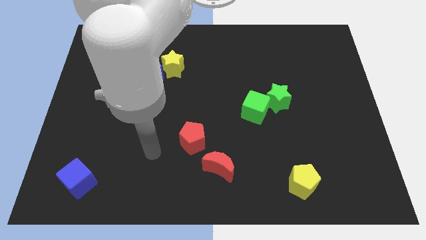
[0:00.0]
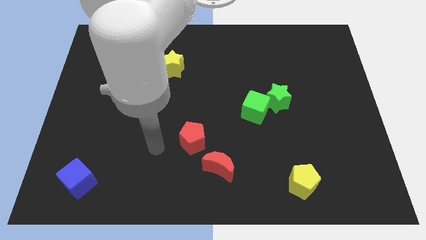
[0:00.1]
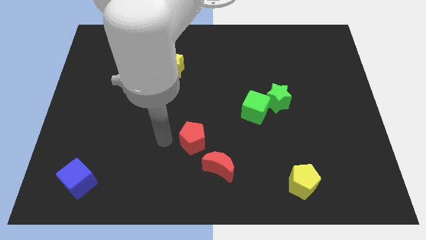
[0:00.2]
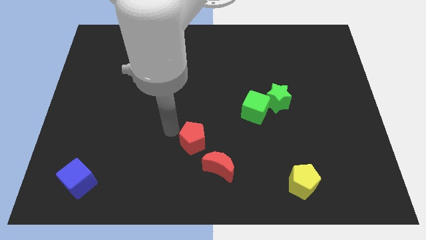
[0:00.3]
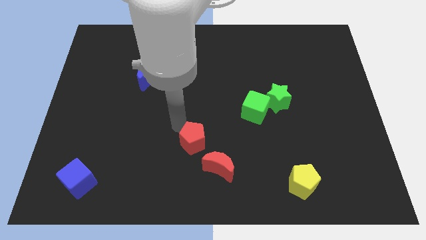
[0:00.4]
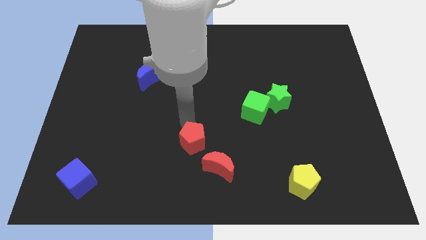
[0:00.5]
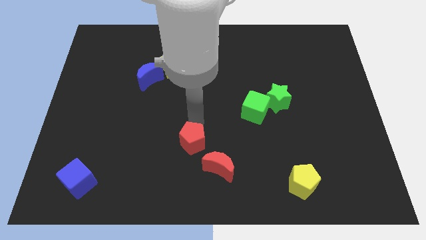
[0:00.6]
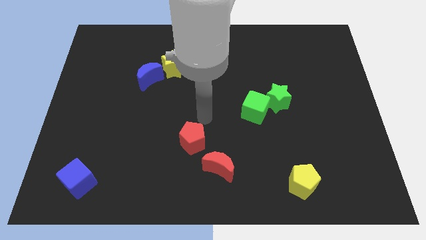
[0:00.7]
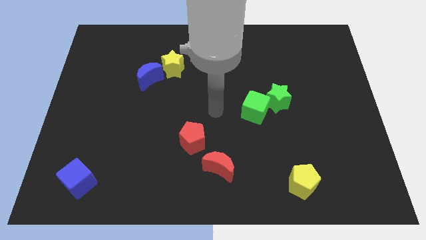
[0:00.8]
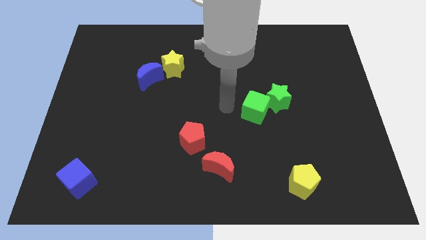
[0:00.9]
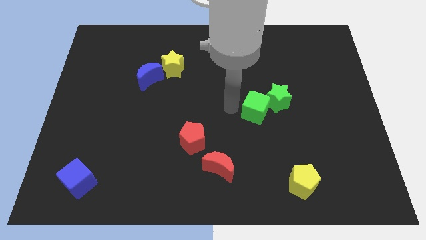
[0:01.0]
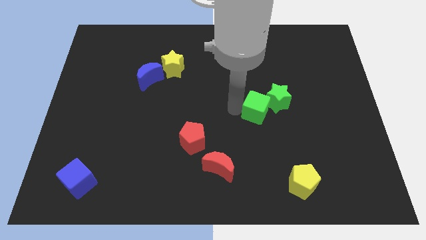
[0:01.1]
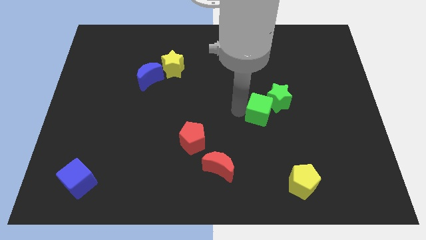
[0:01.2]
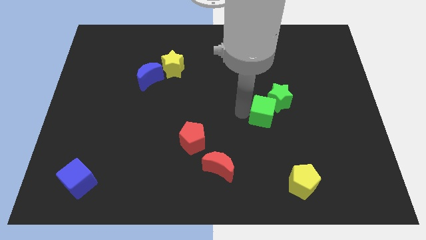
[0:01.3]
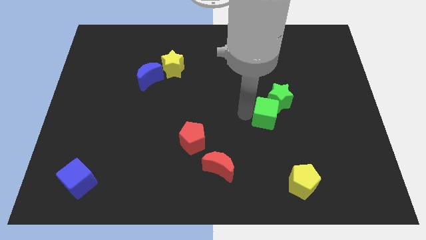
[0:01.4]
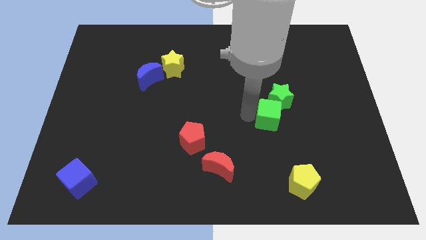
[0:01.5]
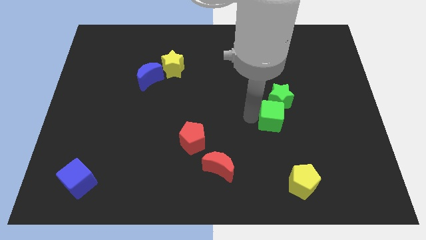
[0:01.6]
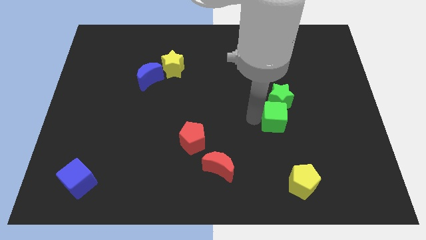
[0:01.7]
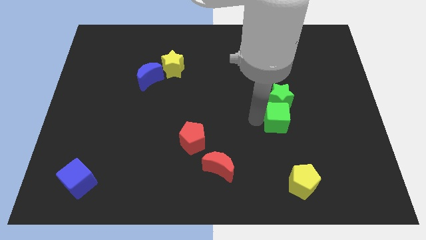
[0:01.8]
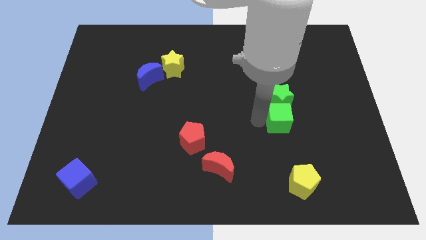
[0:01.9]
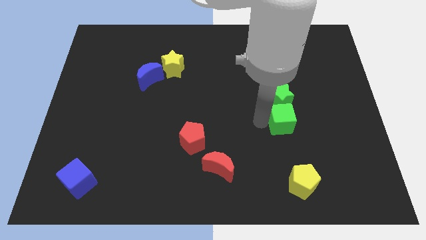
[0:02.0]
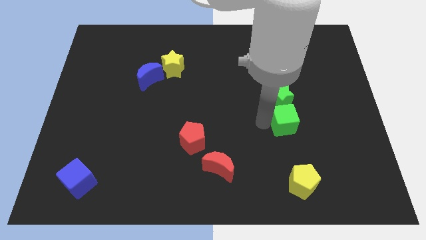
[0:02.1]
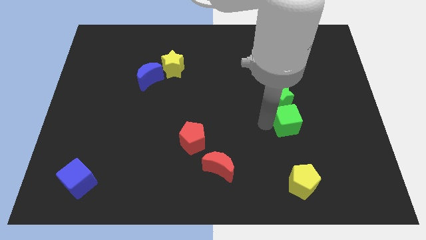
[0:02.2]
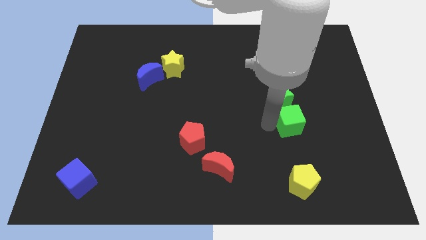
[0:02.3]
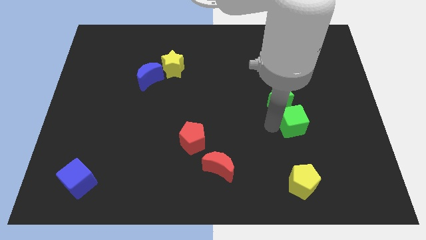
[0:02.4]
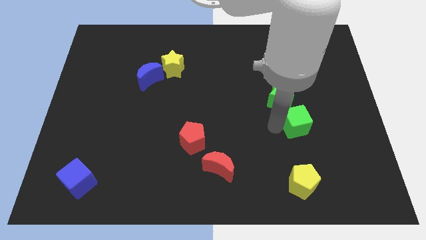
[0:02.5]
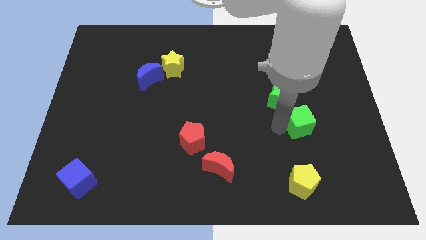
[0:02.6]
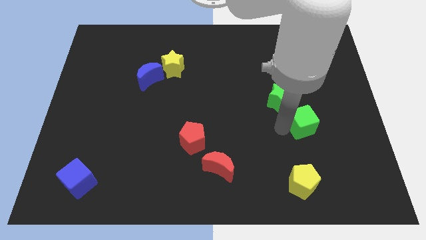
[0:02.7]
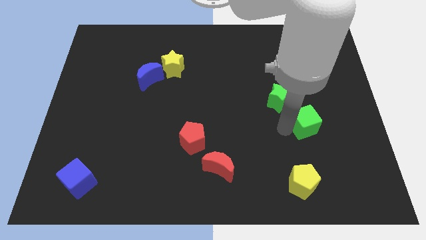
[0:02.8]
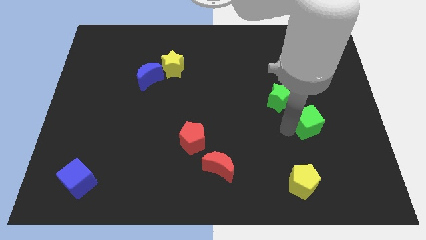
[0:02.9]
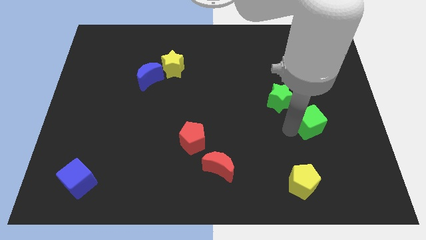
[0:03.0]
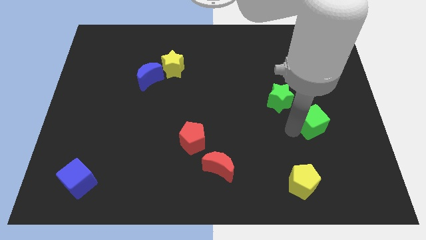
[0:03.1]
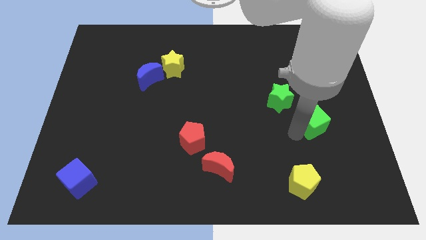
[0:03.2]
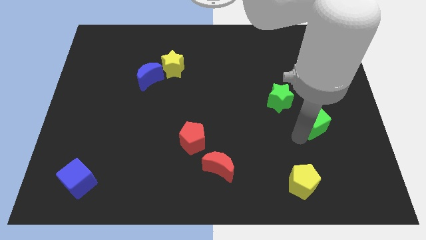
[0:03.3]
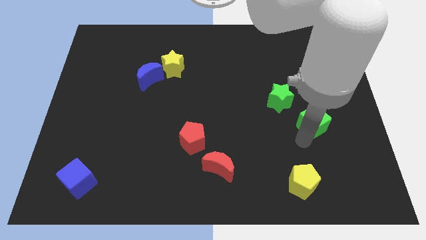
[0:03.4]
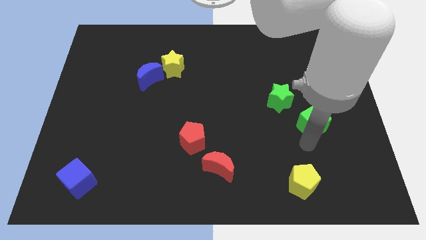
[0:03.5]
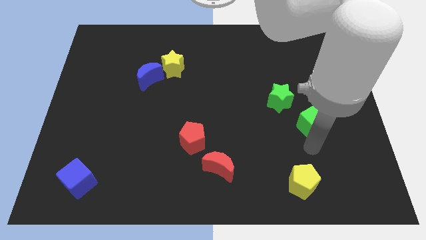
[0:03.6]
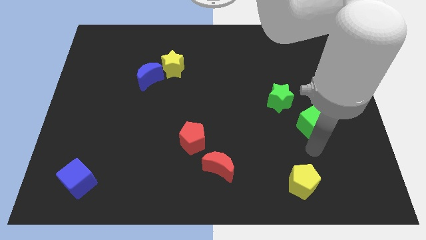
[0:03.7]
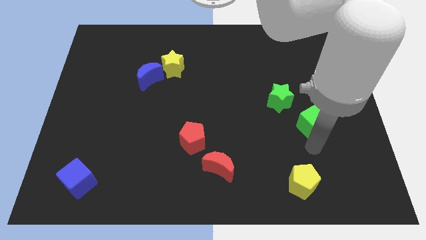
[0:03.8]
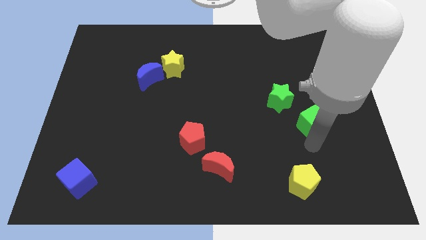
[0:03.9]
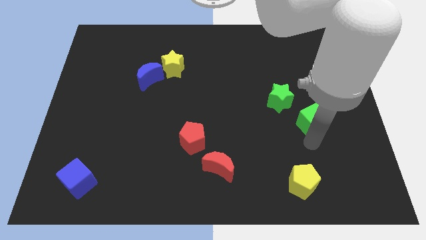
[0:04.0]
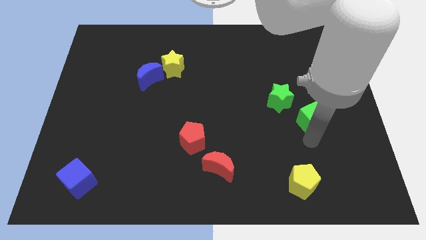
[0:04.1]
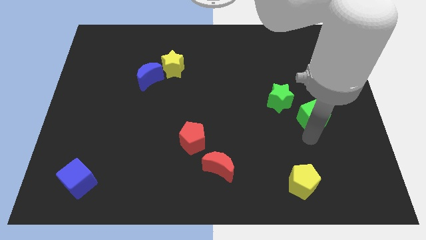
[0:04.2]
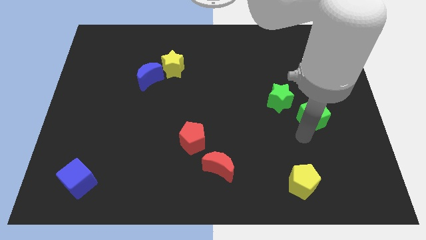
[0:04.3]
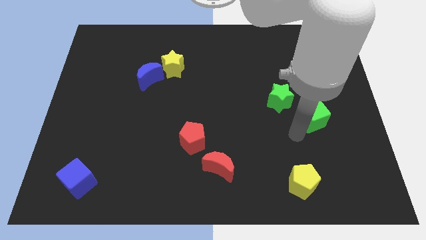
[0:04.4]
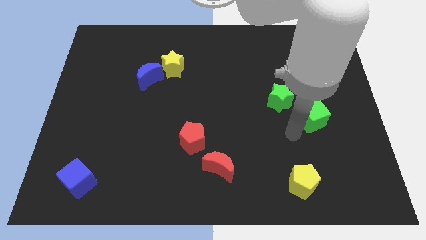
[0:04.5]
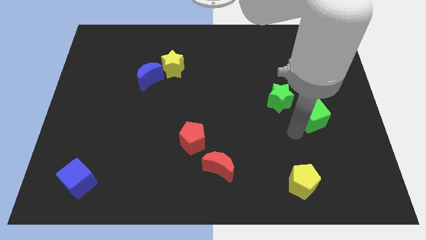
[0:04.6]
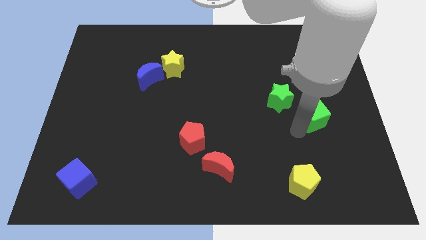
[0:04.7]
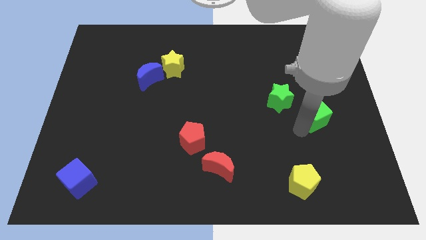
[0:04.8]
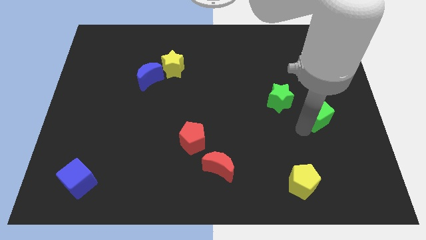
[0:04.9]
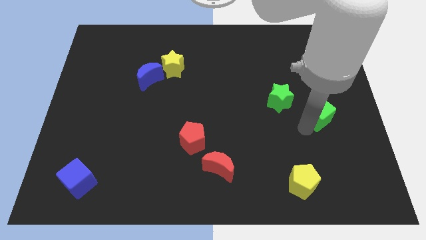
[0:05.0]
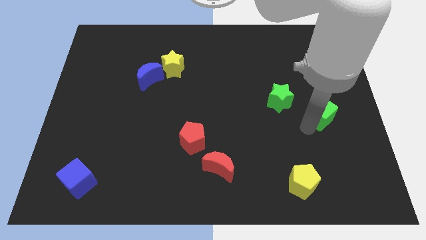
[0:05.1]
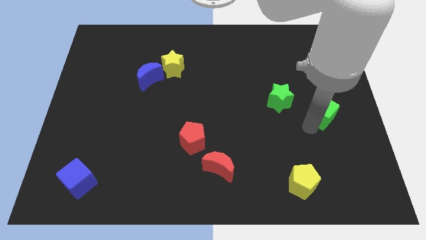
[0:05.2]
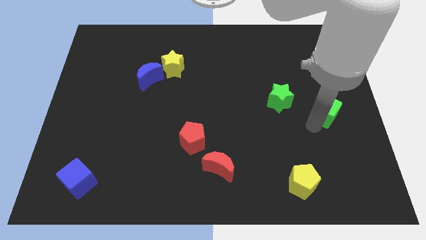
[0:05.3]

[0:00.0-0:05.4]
push the green cube to the center right
